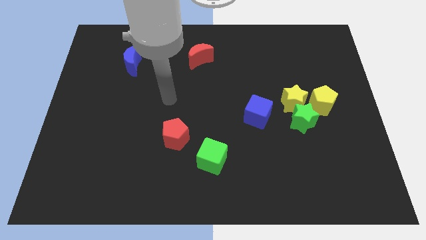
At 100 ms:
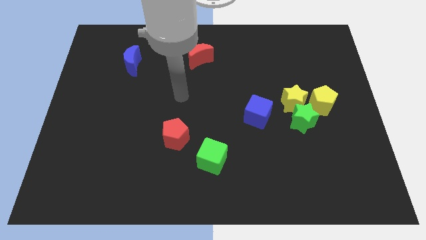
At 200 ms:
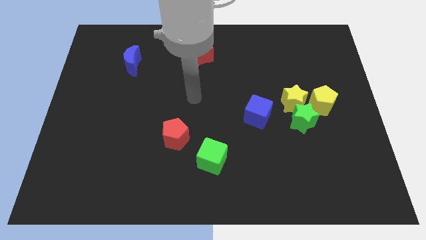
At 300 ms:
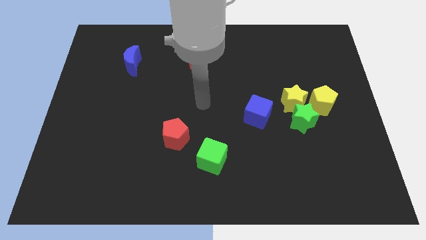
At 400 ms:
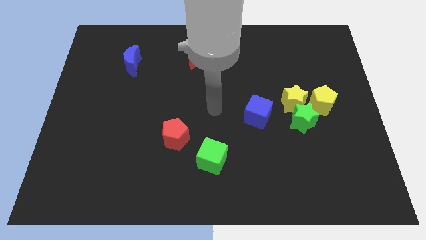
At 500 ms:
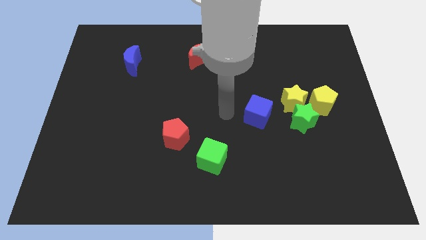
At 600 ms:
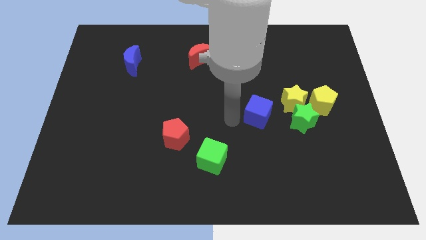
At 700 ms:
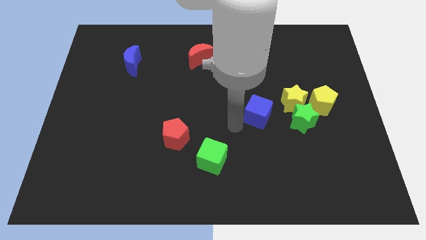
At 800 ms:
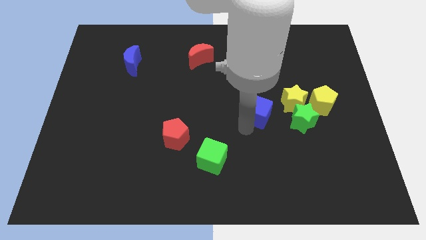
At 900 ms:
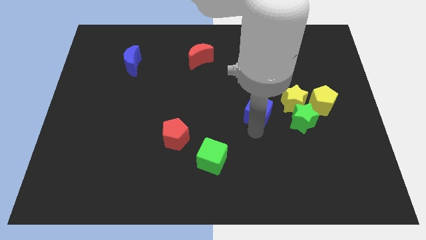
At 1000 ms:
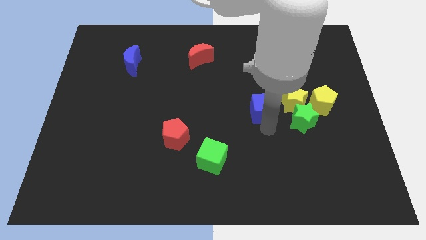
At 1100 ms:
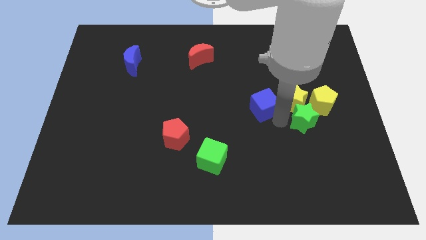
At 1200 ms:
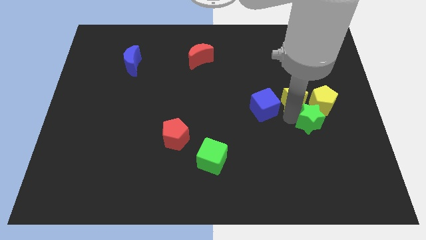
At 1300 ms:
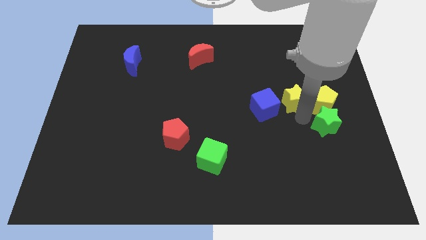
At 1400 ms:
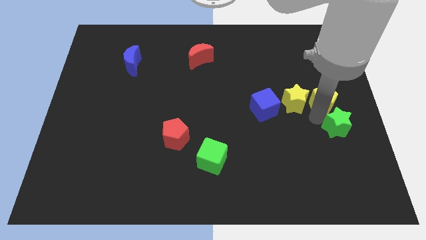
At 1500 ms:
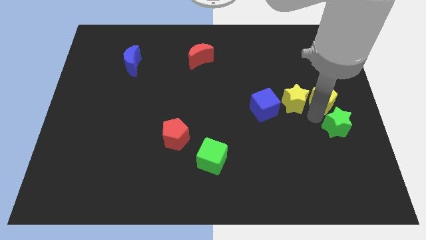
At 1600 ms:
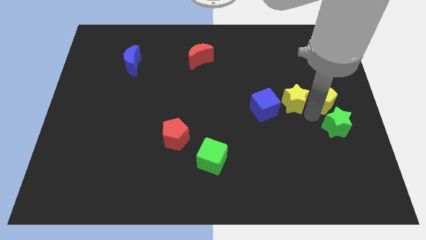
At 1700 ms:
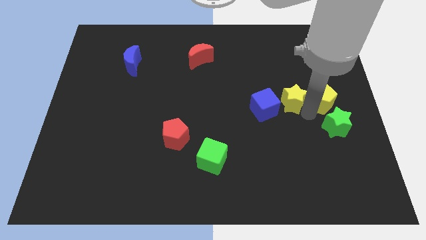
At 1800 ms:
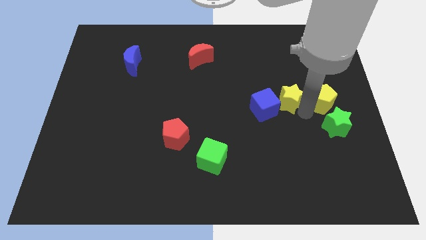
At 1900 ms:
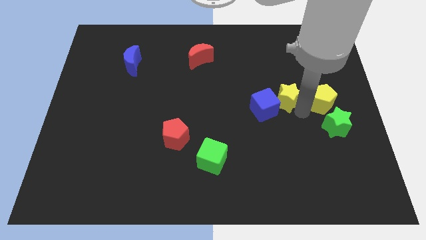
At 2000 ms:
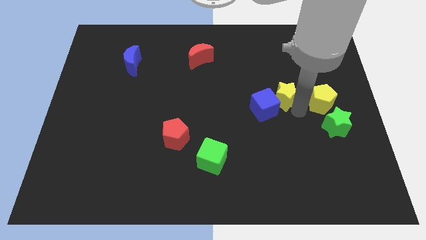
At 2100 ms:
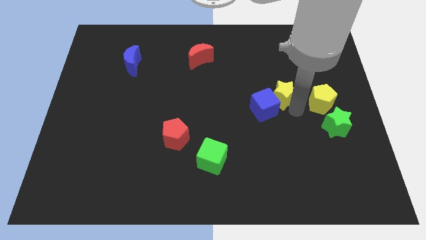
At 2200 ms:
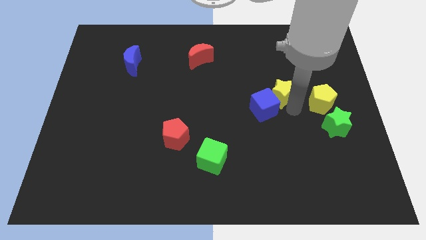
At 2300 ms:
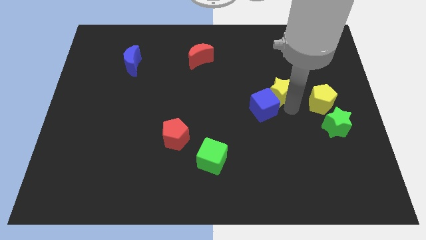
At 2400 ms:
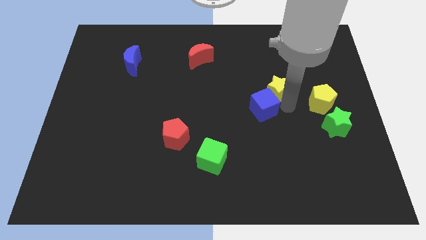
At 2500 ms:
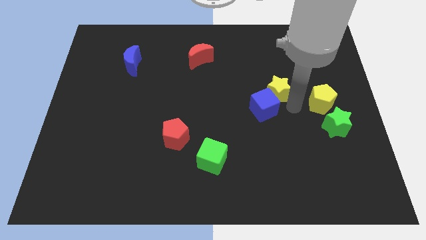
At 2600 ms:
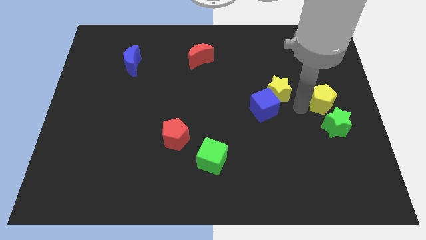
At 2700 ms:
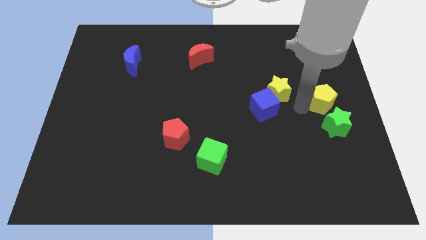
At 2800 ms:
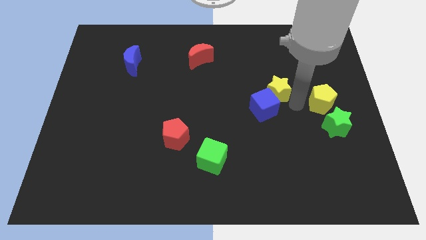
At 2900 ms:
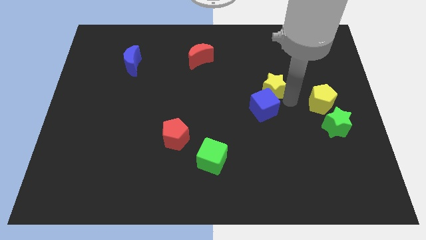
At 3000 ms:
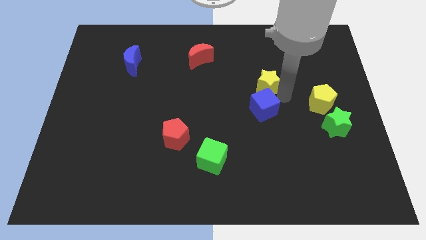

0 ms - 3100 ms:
slide the yellow star a little diagonally up and left

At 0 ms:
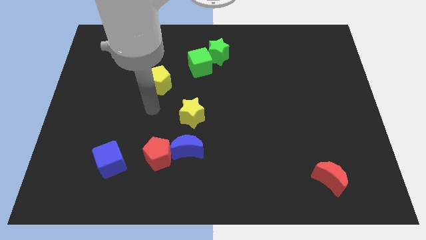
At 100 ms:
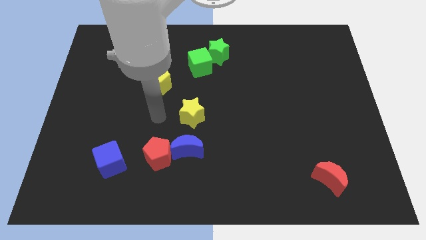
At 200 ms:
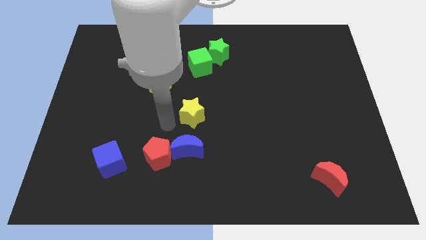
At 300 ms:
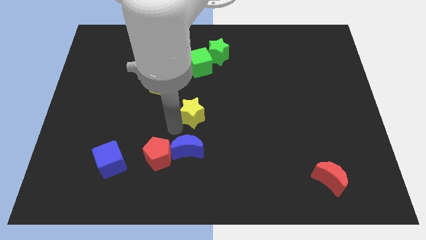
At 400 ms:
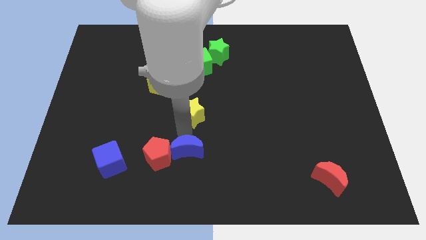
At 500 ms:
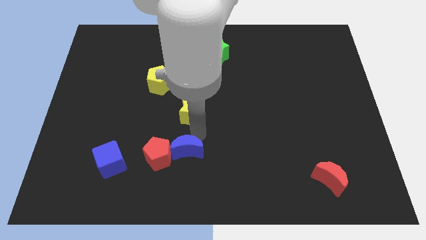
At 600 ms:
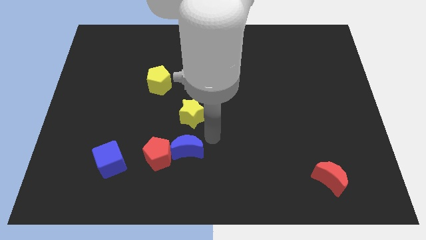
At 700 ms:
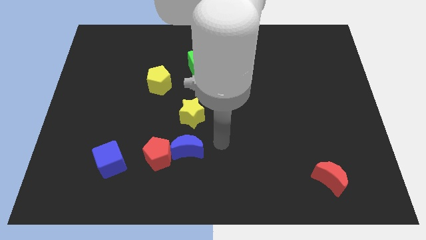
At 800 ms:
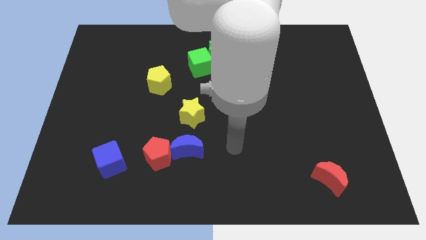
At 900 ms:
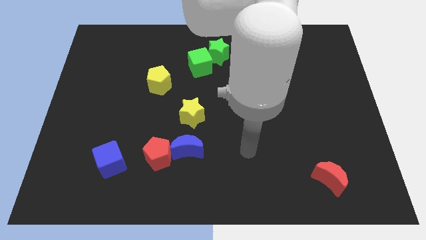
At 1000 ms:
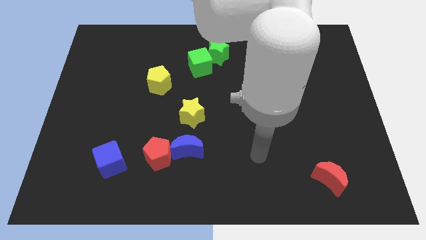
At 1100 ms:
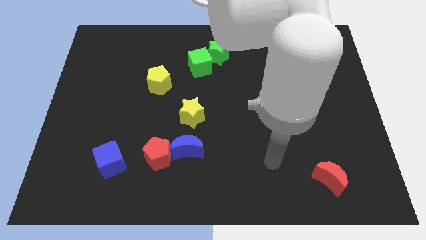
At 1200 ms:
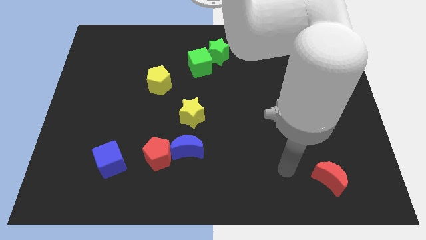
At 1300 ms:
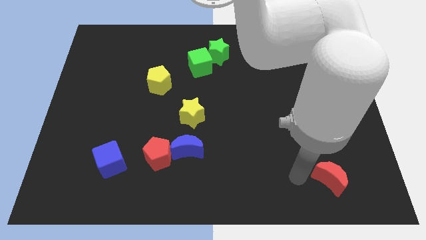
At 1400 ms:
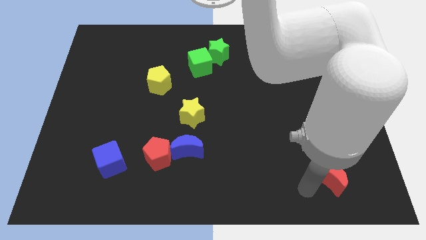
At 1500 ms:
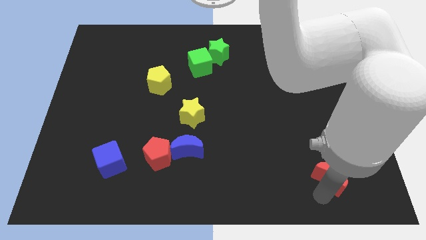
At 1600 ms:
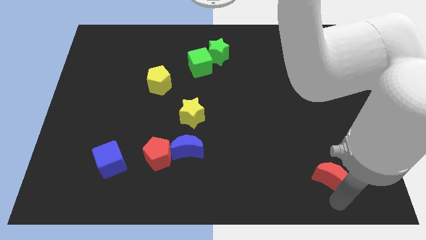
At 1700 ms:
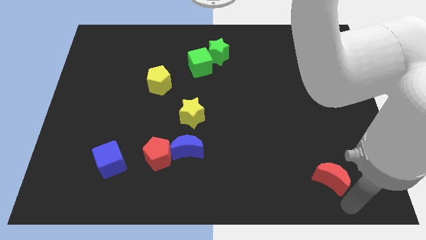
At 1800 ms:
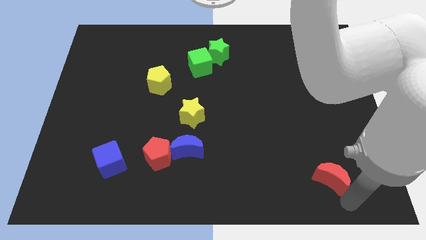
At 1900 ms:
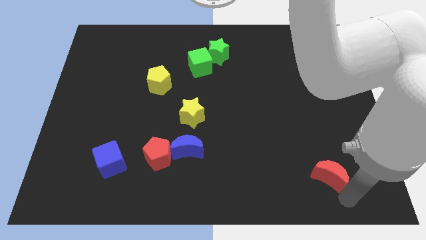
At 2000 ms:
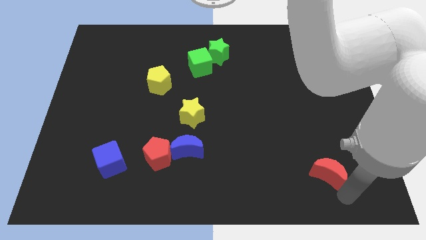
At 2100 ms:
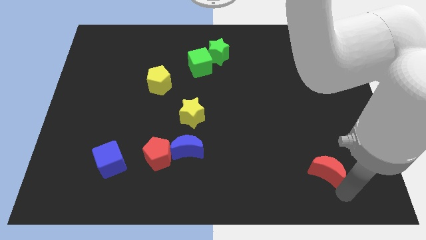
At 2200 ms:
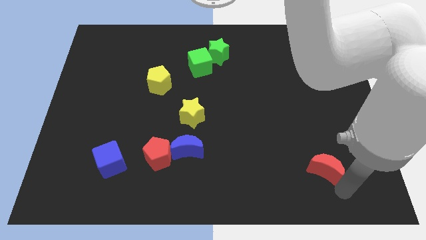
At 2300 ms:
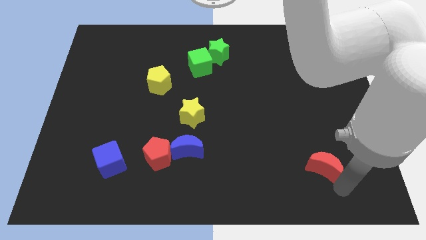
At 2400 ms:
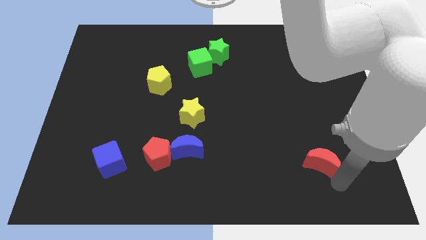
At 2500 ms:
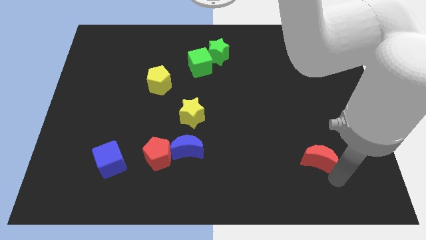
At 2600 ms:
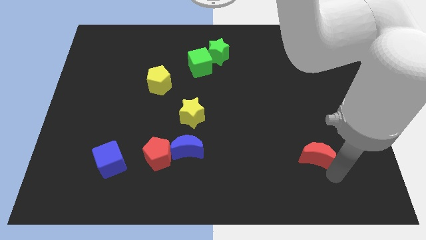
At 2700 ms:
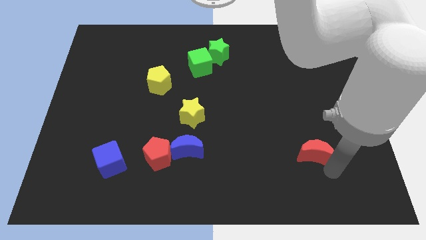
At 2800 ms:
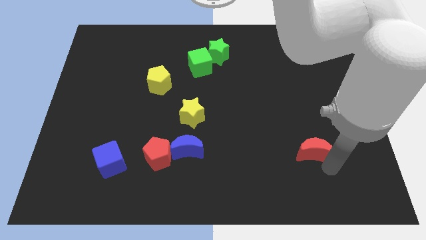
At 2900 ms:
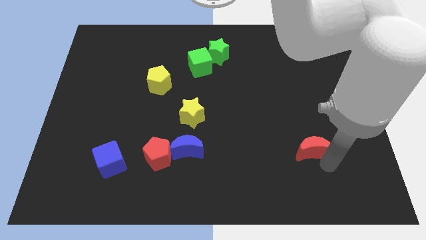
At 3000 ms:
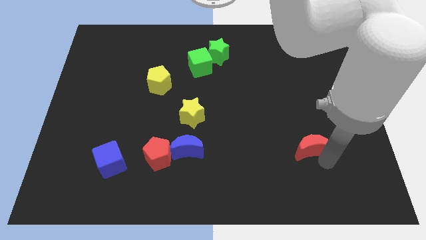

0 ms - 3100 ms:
push the red moon diagonally up and left slightly

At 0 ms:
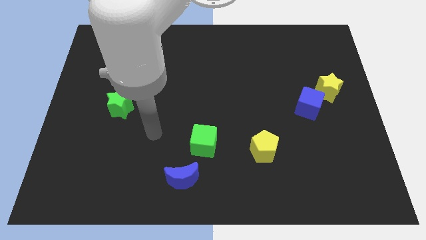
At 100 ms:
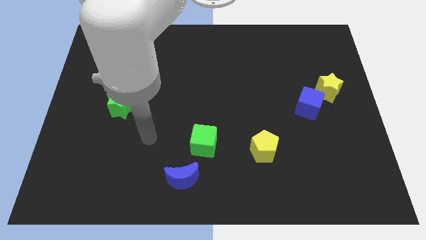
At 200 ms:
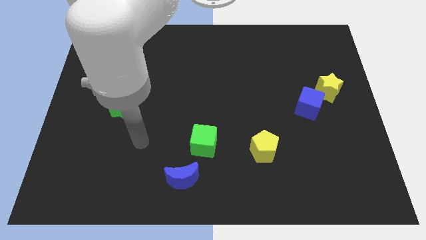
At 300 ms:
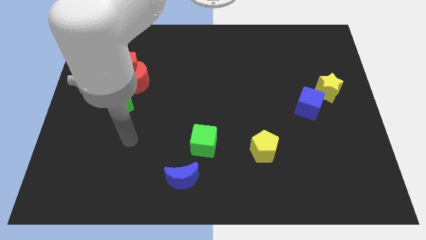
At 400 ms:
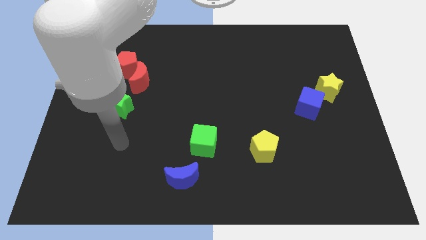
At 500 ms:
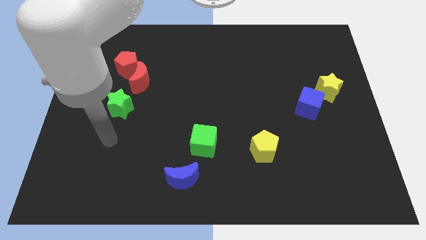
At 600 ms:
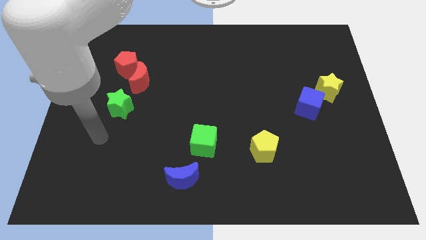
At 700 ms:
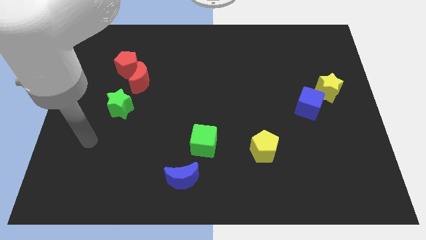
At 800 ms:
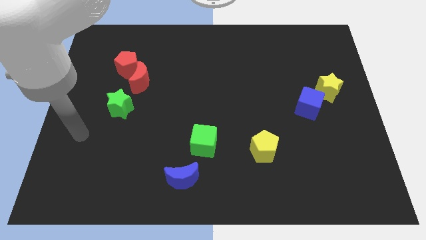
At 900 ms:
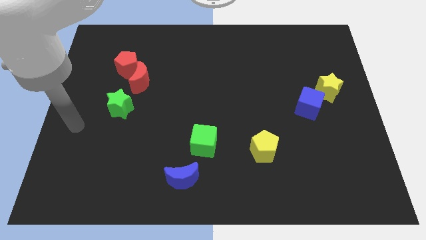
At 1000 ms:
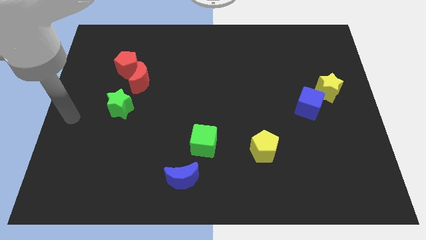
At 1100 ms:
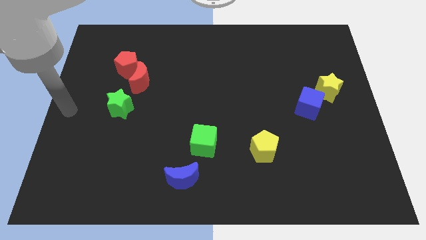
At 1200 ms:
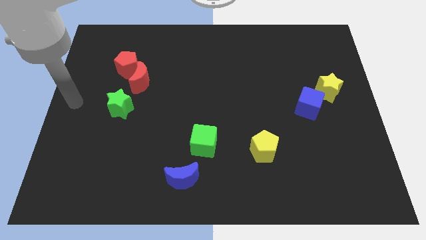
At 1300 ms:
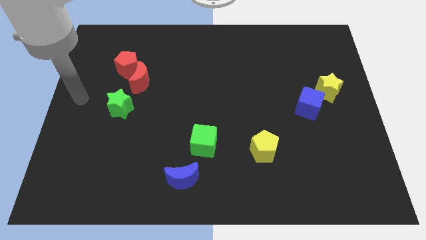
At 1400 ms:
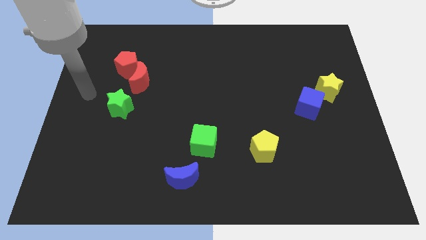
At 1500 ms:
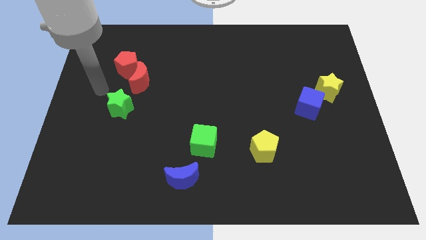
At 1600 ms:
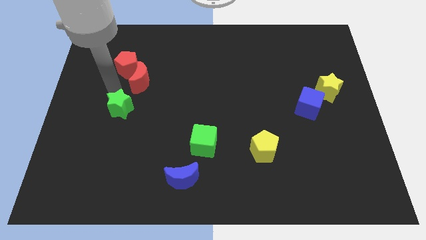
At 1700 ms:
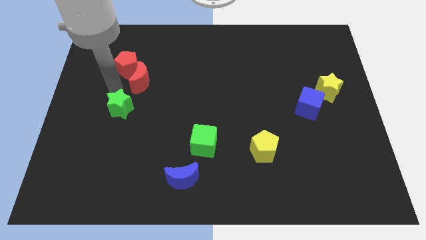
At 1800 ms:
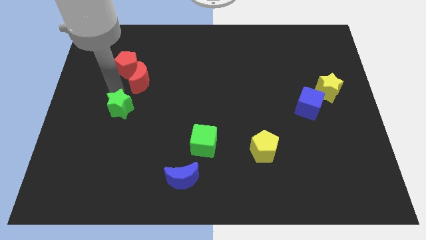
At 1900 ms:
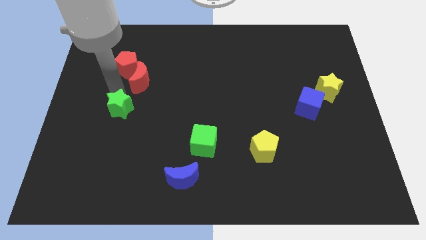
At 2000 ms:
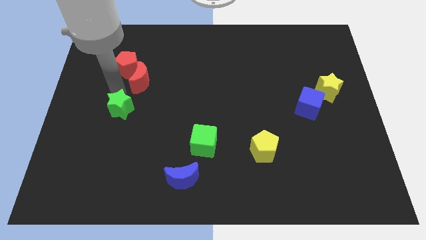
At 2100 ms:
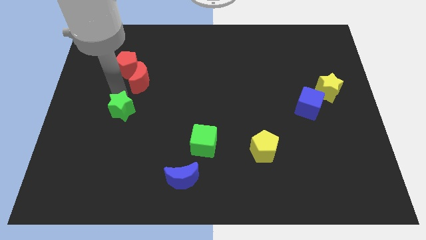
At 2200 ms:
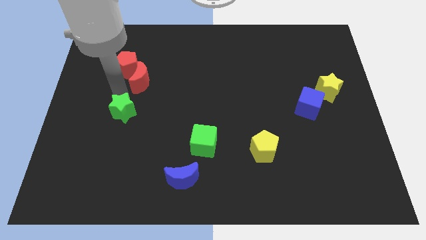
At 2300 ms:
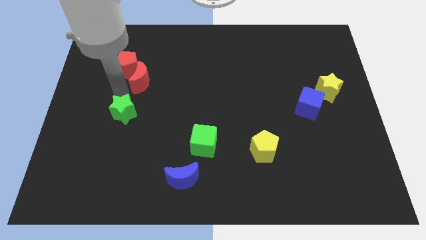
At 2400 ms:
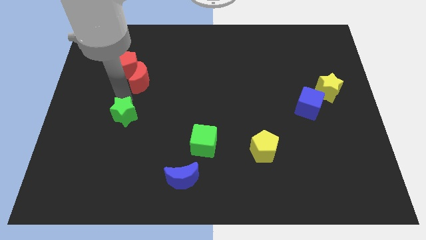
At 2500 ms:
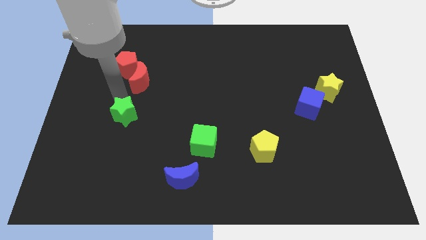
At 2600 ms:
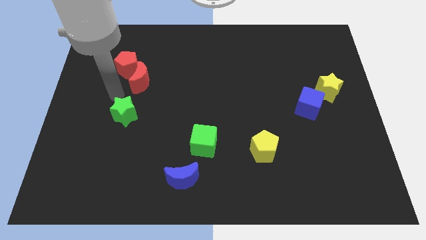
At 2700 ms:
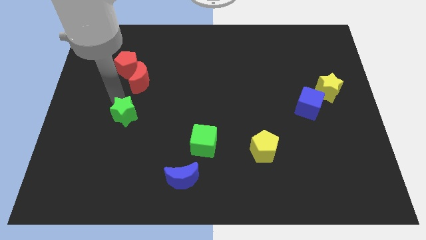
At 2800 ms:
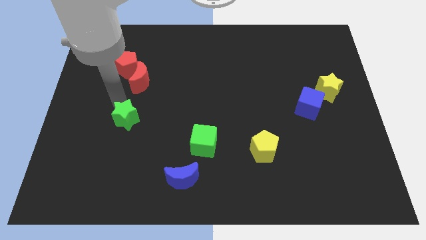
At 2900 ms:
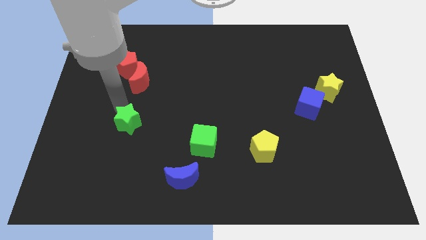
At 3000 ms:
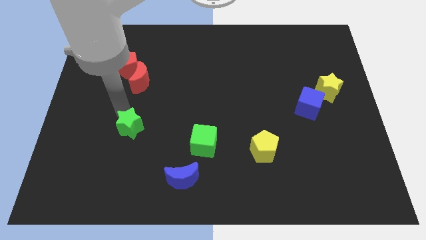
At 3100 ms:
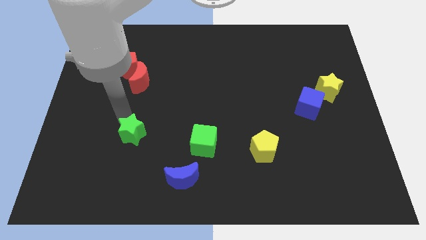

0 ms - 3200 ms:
slightly move the green star diagonally downwards and right
